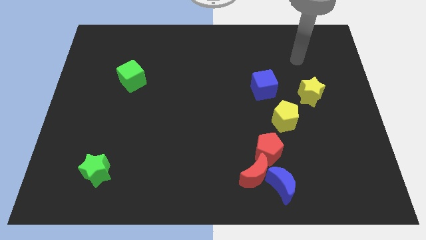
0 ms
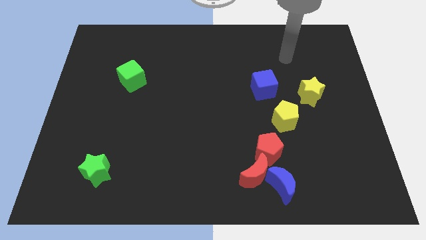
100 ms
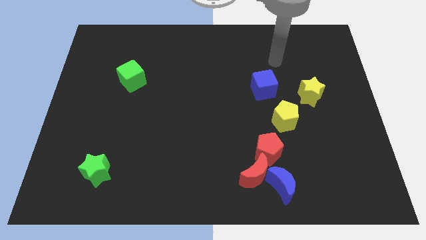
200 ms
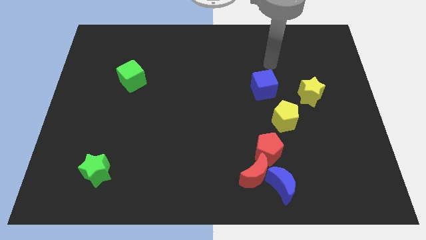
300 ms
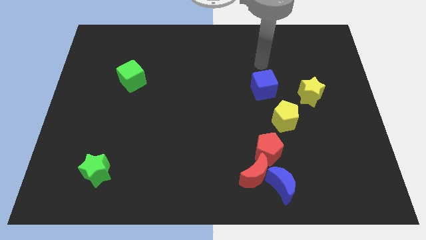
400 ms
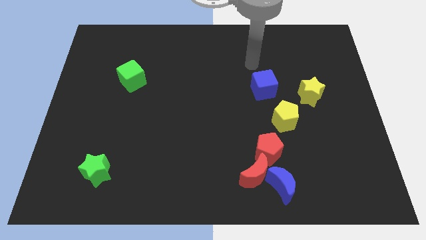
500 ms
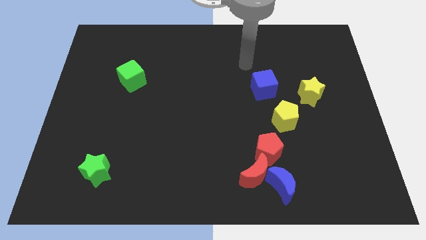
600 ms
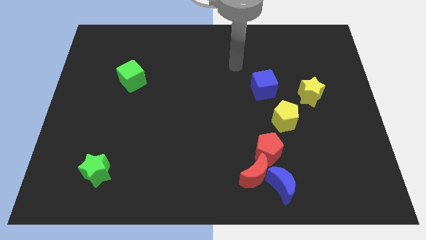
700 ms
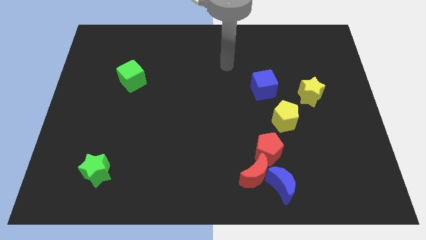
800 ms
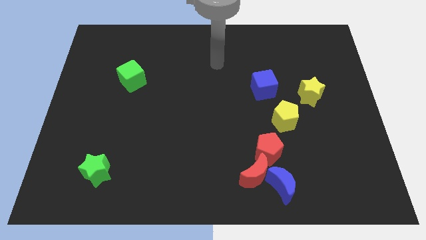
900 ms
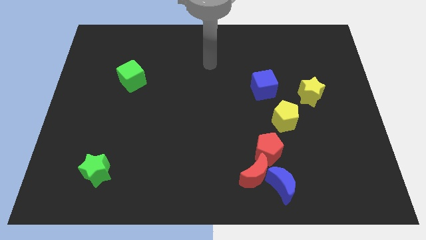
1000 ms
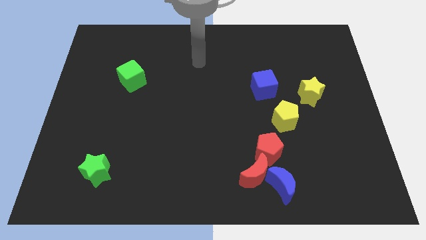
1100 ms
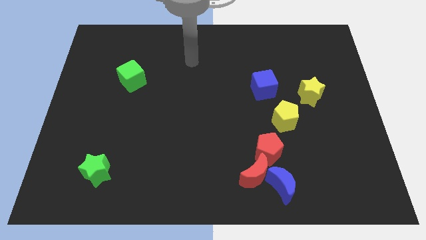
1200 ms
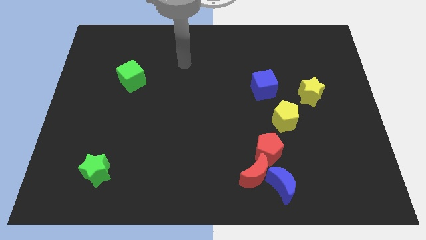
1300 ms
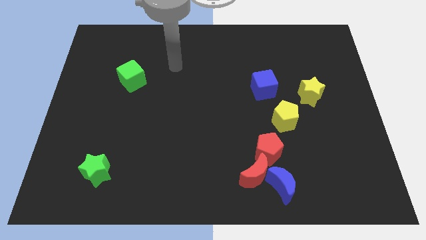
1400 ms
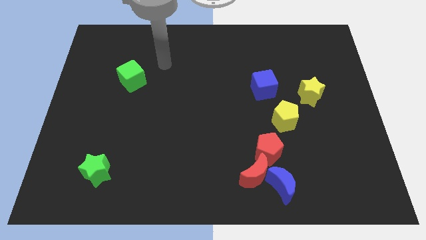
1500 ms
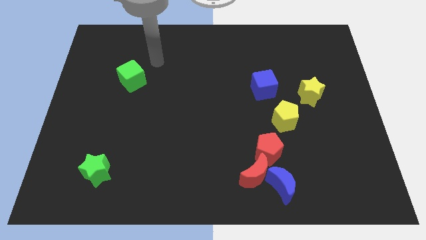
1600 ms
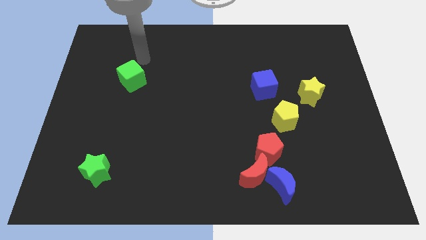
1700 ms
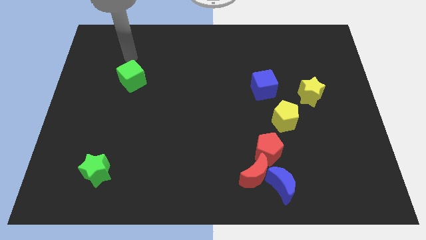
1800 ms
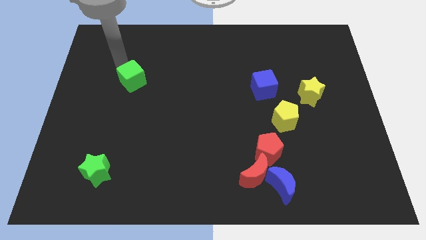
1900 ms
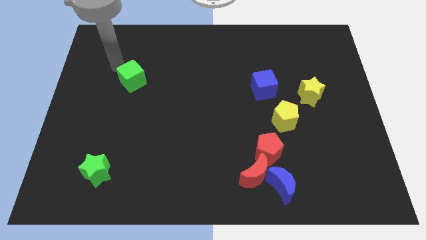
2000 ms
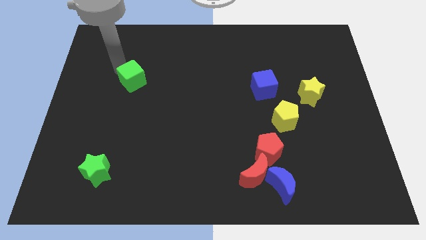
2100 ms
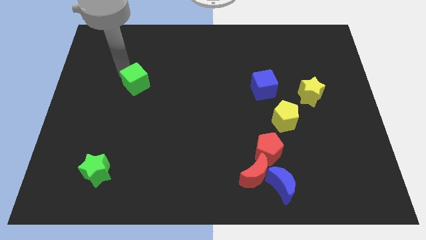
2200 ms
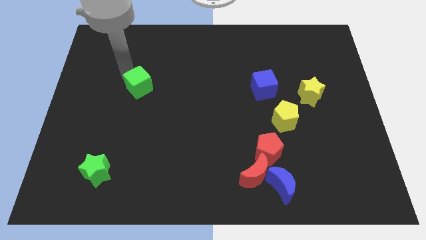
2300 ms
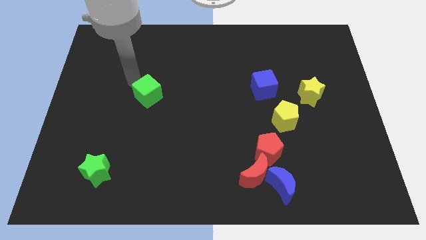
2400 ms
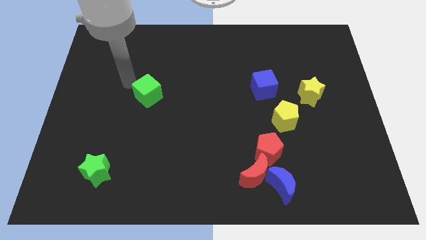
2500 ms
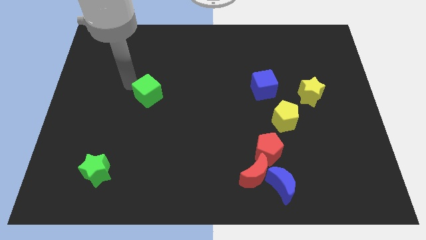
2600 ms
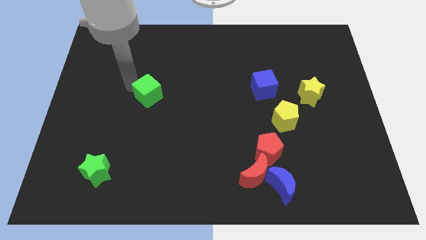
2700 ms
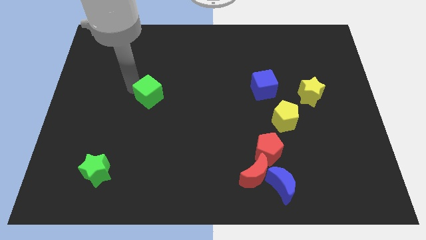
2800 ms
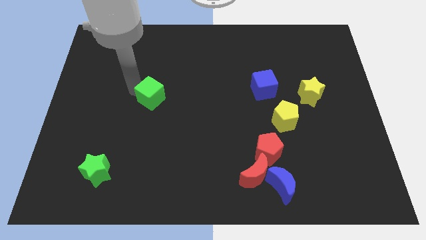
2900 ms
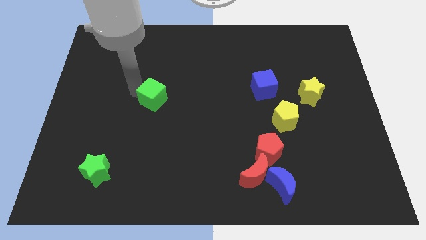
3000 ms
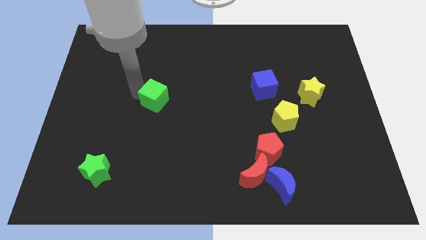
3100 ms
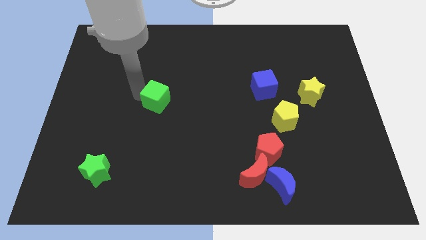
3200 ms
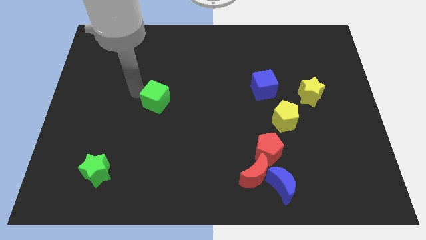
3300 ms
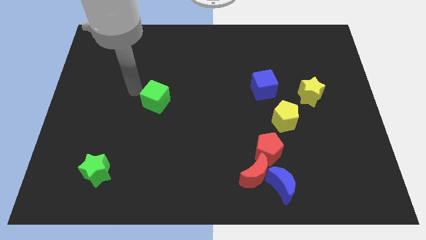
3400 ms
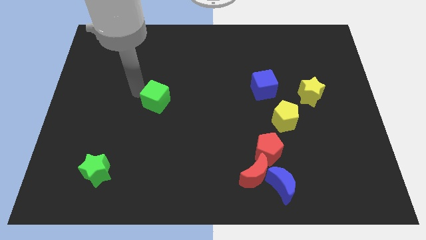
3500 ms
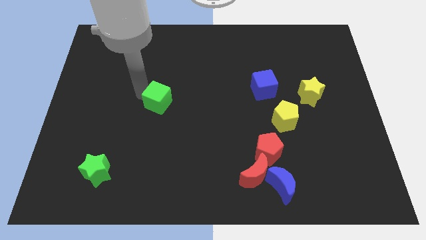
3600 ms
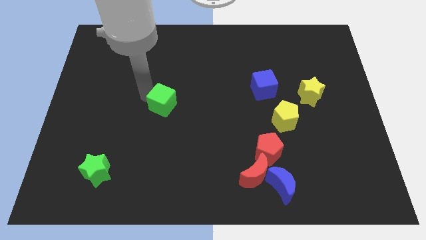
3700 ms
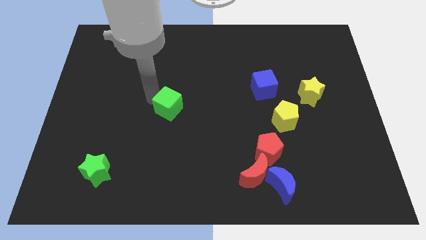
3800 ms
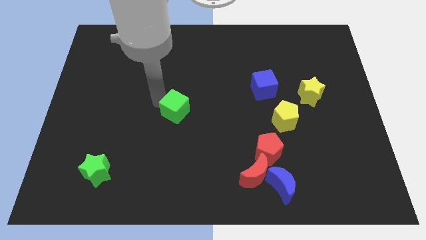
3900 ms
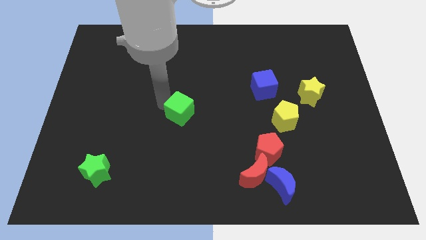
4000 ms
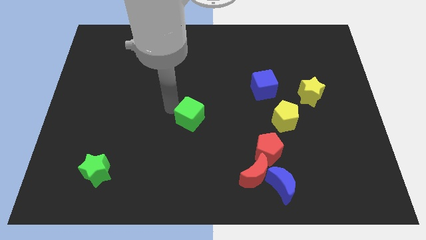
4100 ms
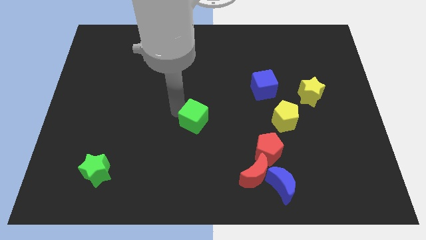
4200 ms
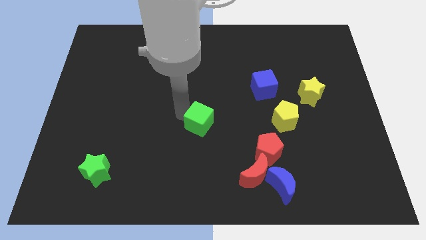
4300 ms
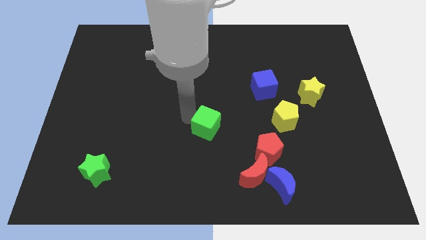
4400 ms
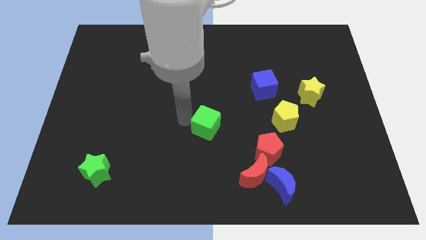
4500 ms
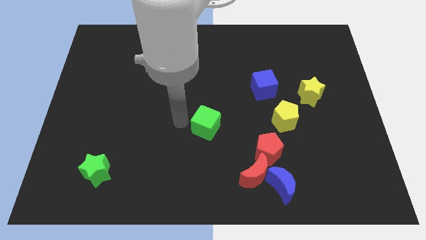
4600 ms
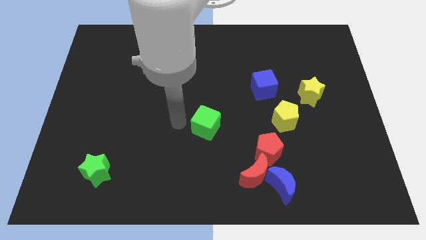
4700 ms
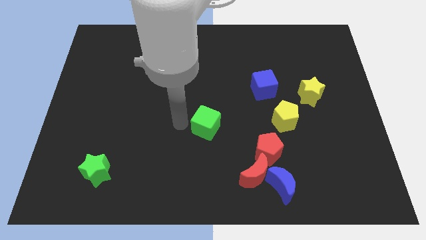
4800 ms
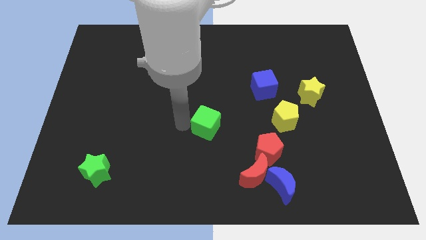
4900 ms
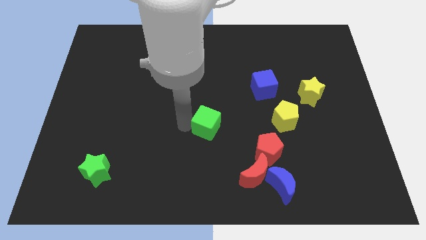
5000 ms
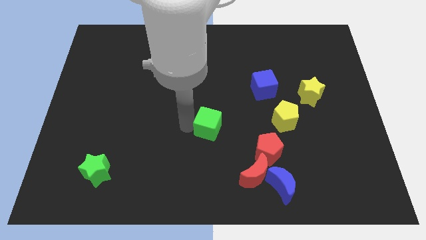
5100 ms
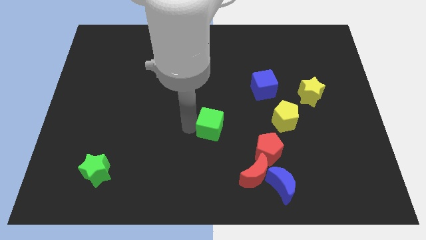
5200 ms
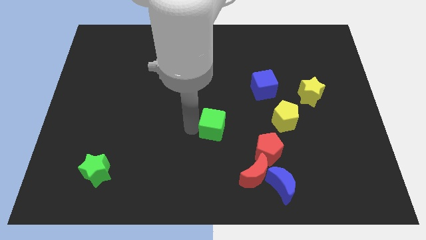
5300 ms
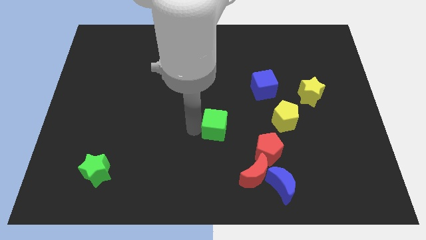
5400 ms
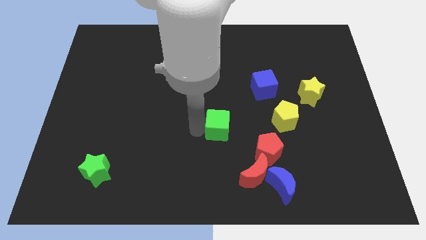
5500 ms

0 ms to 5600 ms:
slide the green cube diagonally up and to the left of the red pentagon

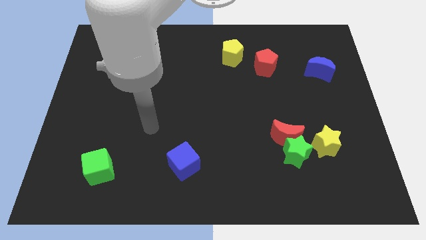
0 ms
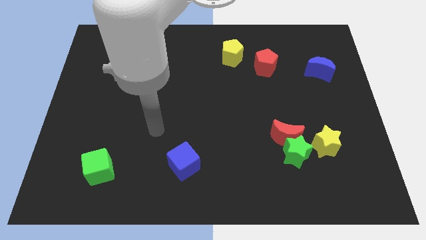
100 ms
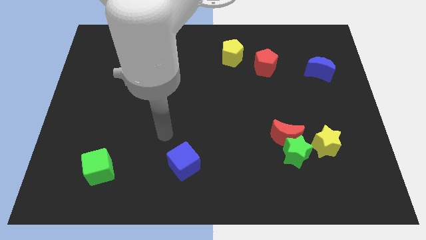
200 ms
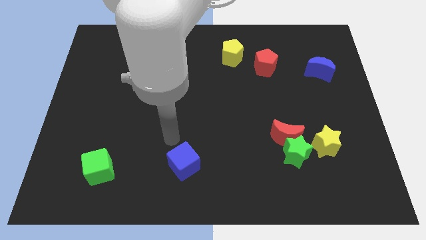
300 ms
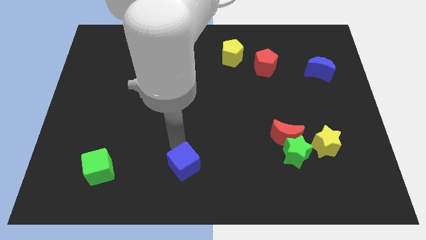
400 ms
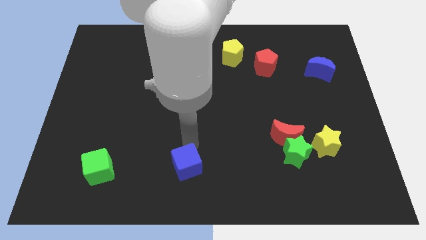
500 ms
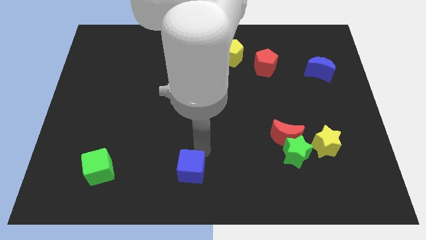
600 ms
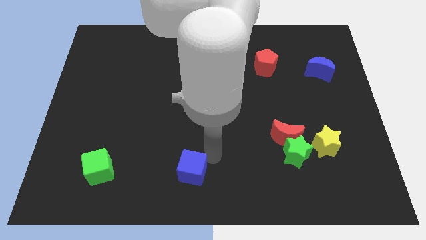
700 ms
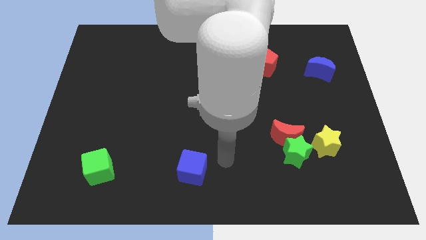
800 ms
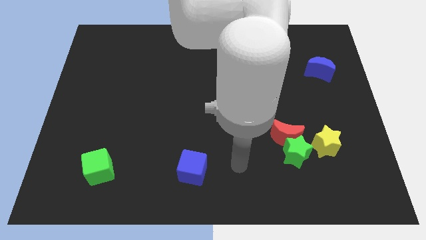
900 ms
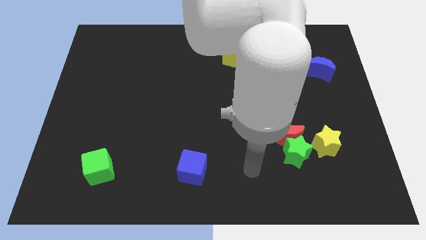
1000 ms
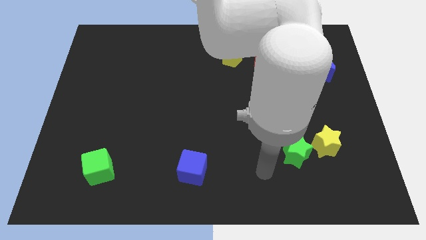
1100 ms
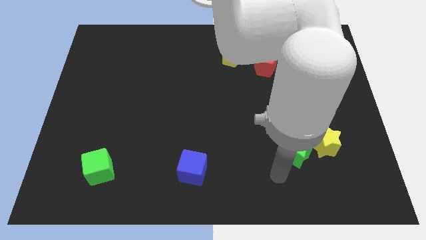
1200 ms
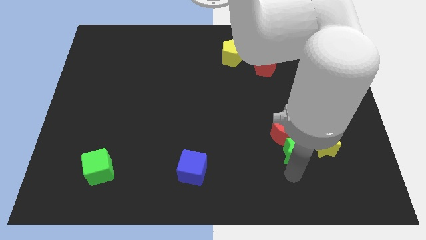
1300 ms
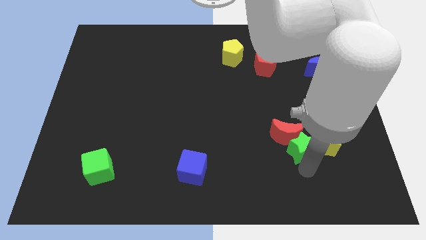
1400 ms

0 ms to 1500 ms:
put the green star diagonally up and to the left of the yellow star
